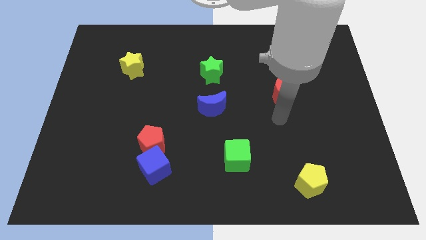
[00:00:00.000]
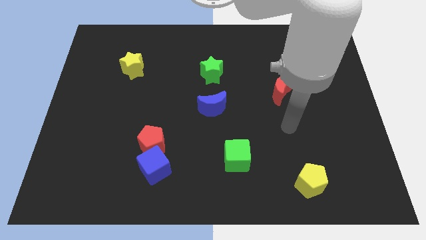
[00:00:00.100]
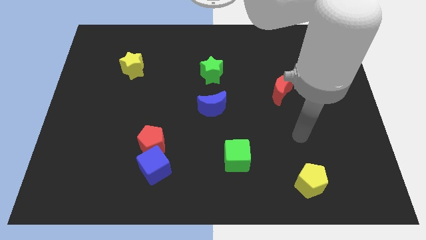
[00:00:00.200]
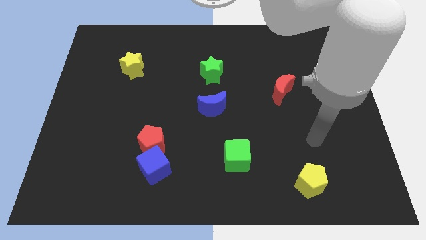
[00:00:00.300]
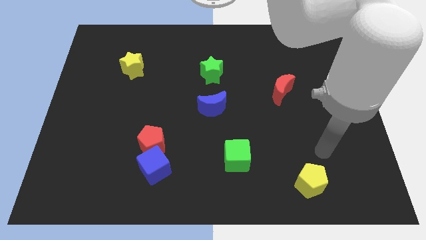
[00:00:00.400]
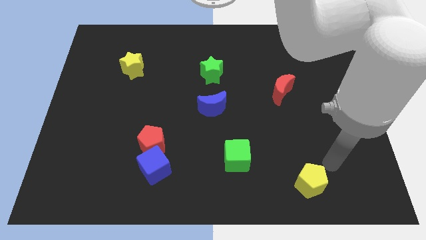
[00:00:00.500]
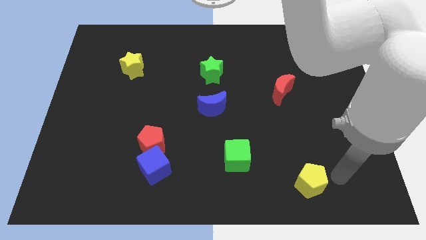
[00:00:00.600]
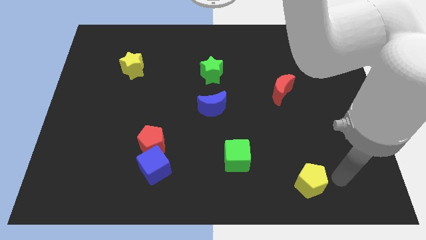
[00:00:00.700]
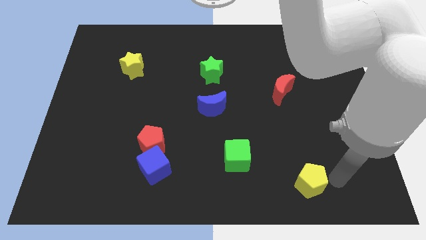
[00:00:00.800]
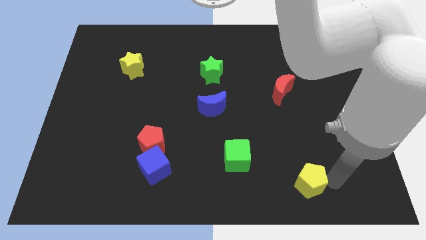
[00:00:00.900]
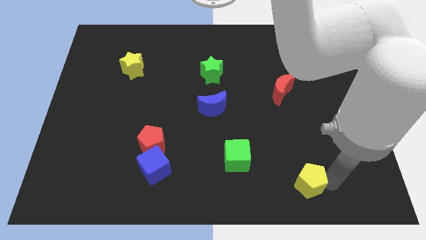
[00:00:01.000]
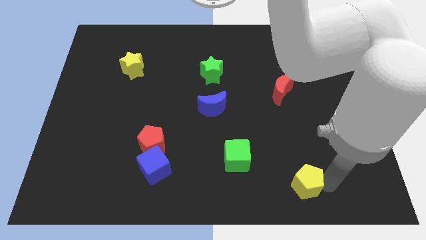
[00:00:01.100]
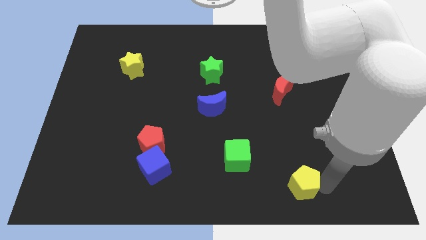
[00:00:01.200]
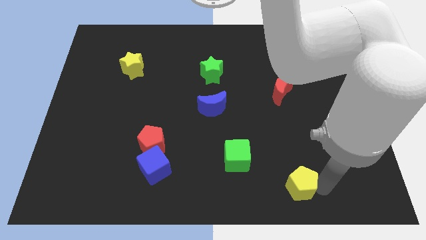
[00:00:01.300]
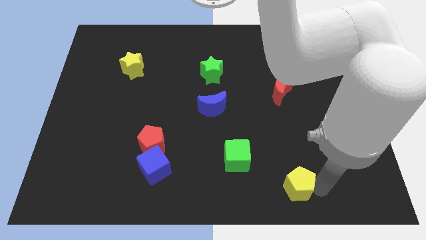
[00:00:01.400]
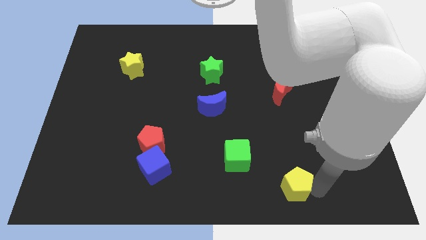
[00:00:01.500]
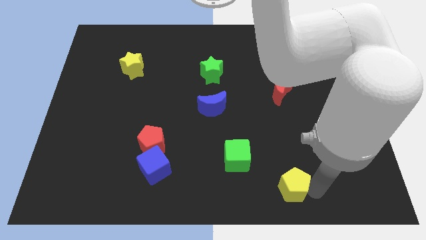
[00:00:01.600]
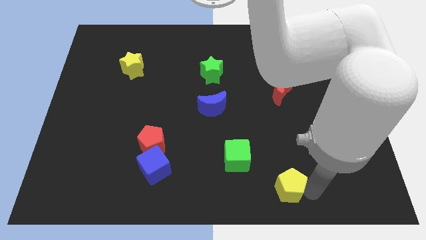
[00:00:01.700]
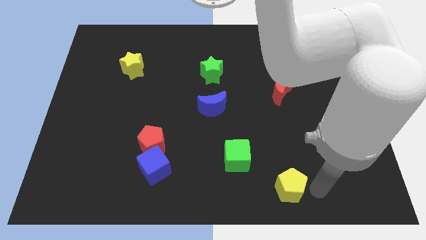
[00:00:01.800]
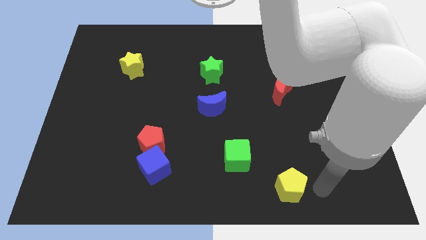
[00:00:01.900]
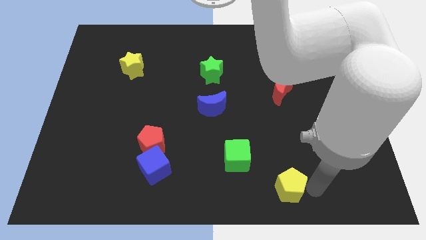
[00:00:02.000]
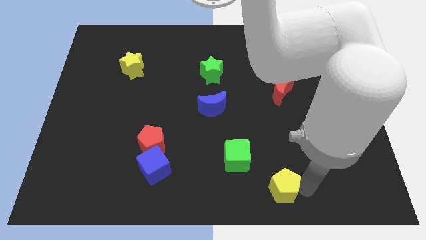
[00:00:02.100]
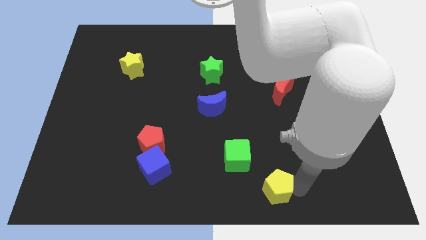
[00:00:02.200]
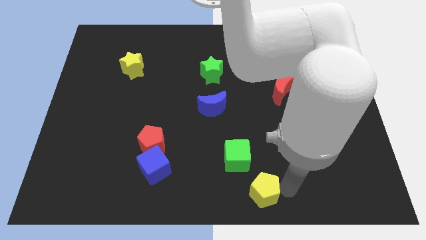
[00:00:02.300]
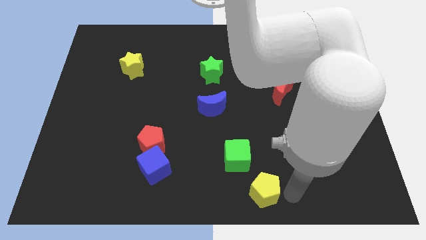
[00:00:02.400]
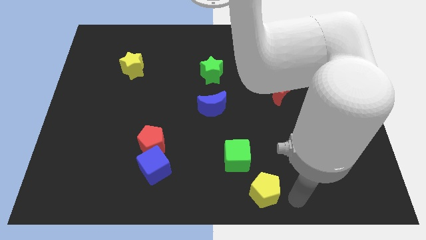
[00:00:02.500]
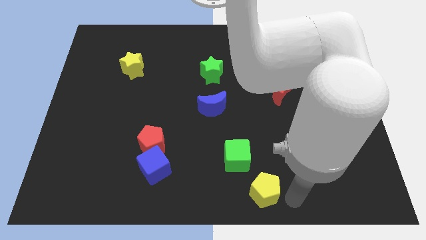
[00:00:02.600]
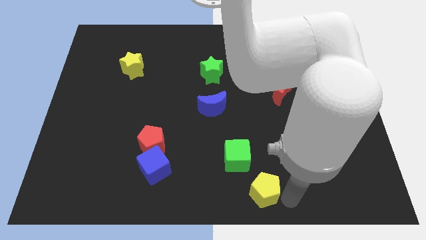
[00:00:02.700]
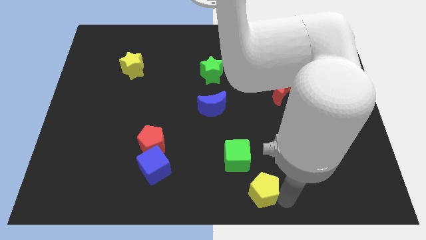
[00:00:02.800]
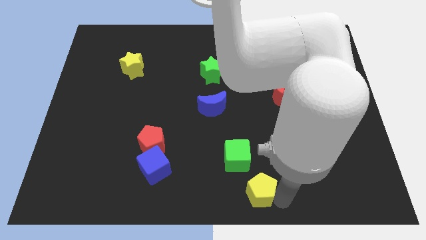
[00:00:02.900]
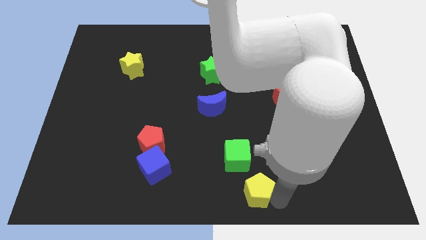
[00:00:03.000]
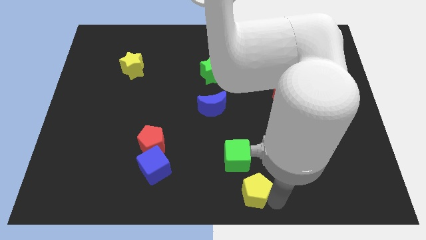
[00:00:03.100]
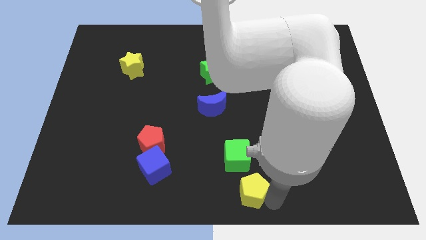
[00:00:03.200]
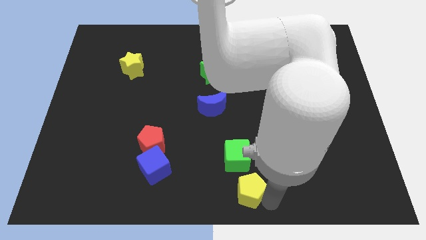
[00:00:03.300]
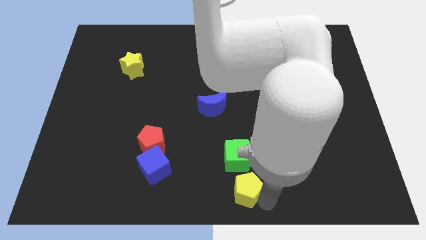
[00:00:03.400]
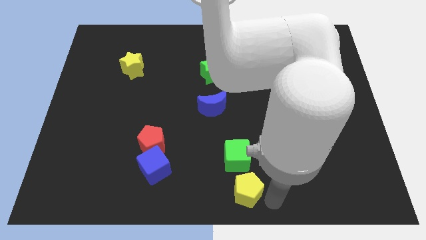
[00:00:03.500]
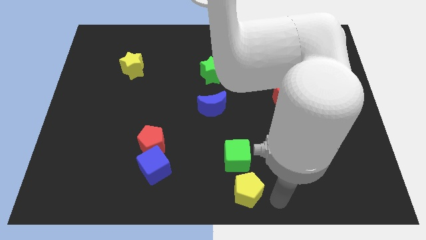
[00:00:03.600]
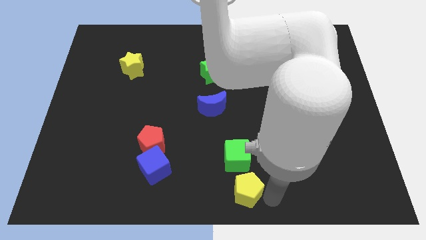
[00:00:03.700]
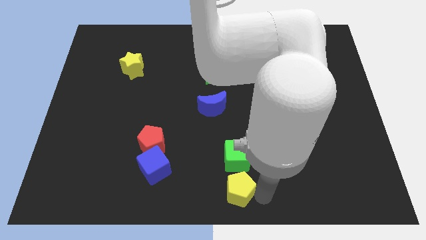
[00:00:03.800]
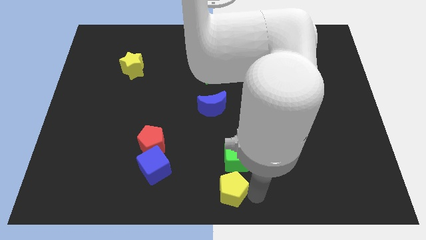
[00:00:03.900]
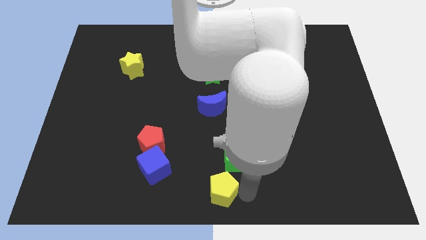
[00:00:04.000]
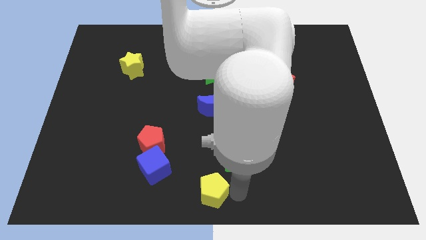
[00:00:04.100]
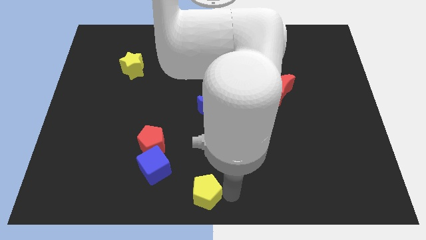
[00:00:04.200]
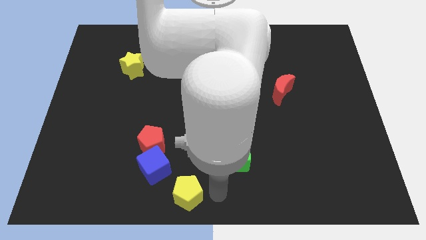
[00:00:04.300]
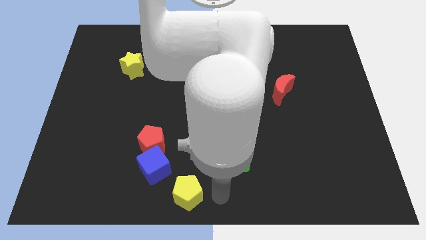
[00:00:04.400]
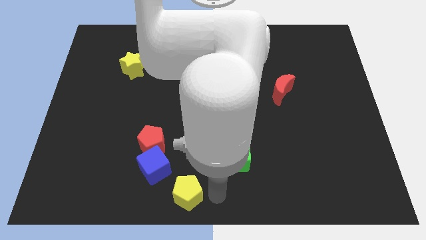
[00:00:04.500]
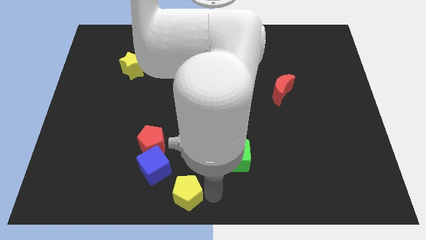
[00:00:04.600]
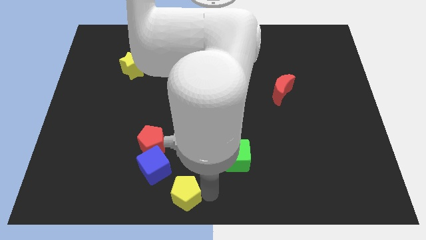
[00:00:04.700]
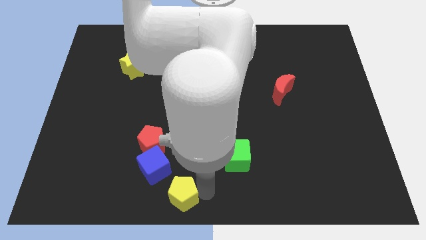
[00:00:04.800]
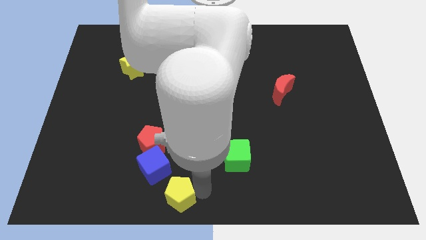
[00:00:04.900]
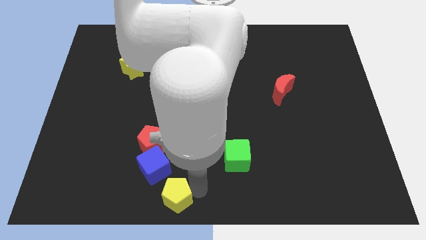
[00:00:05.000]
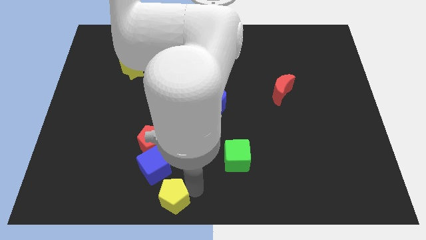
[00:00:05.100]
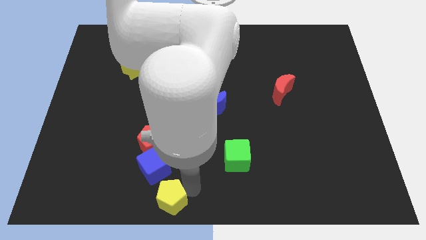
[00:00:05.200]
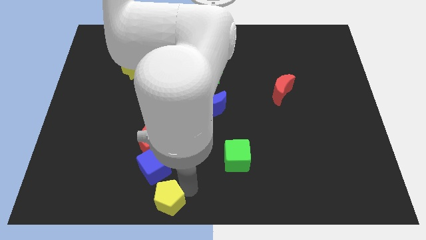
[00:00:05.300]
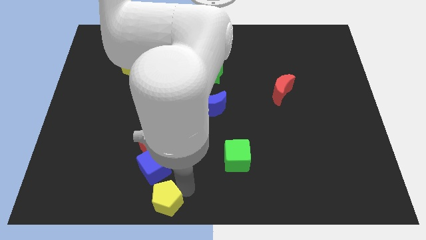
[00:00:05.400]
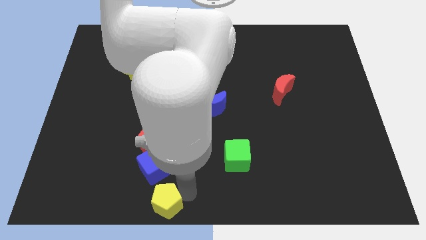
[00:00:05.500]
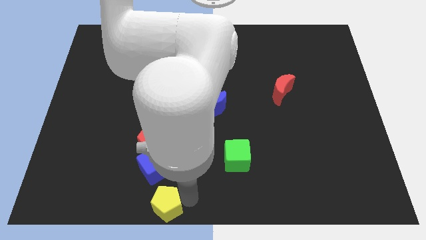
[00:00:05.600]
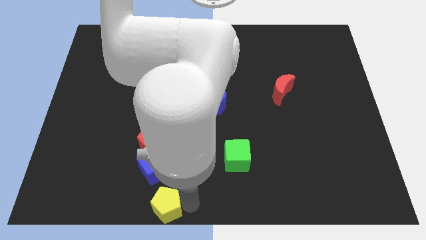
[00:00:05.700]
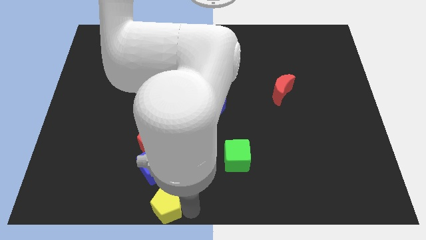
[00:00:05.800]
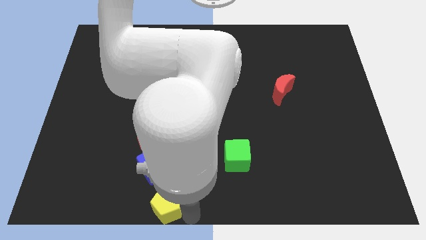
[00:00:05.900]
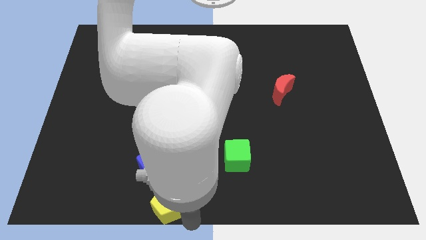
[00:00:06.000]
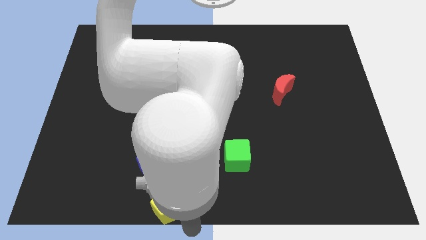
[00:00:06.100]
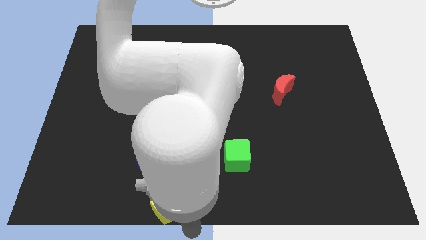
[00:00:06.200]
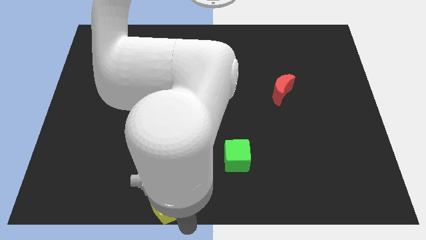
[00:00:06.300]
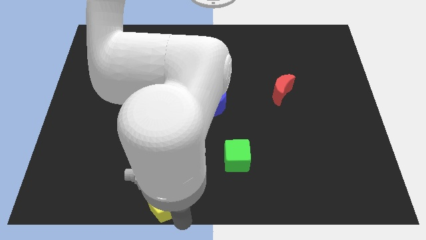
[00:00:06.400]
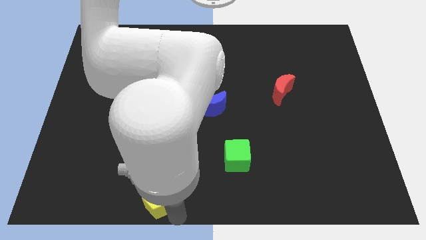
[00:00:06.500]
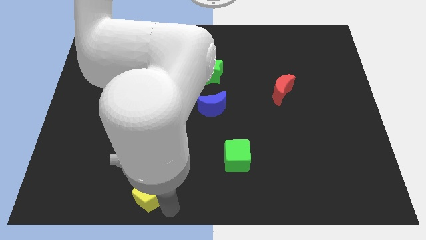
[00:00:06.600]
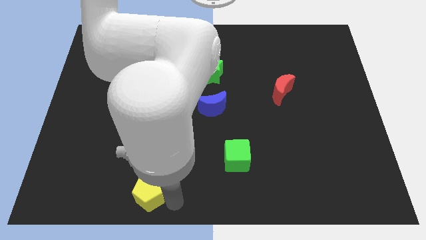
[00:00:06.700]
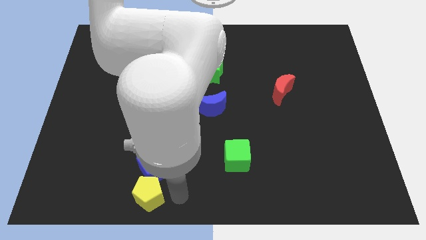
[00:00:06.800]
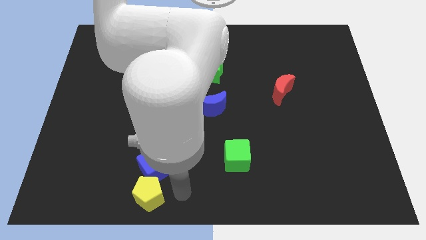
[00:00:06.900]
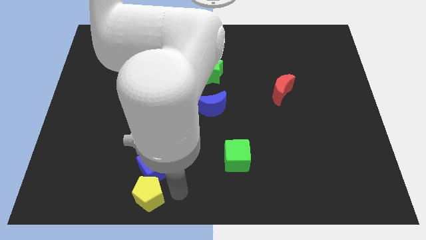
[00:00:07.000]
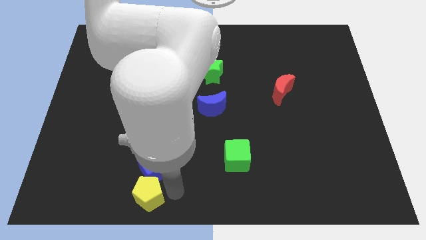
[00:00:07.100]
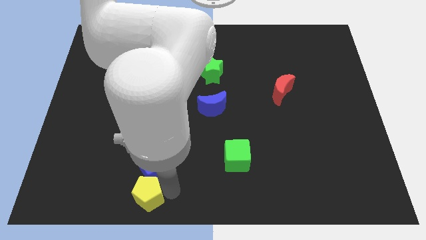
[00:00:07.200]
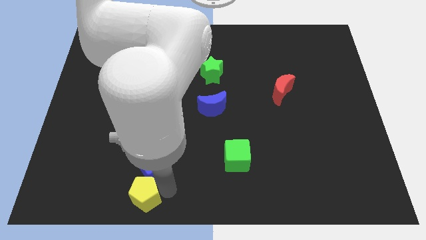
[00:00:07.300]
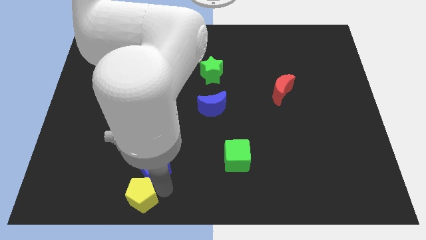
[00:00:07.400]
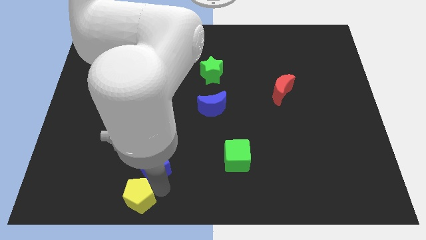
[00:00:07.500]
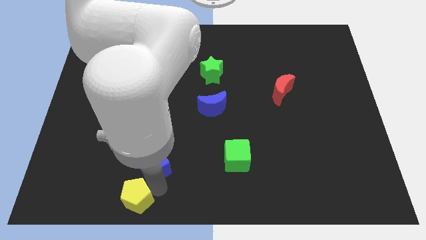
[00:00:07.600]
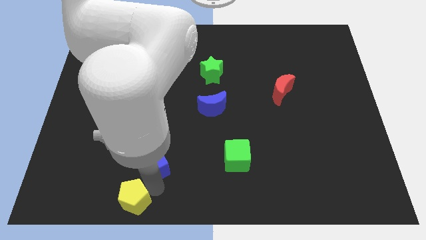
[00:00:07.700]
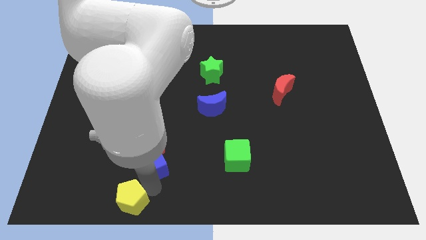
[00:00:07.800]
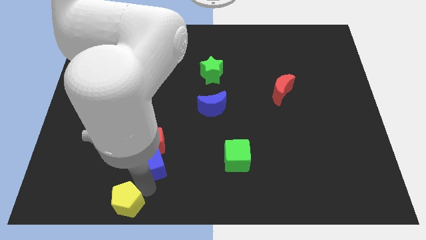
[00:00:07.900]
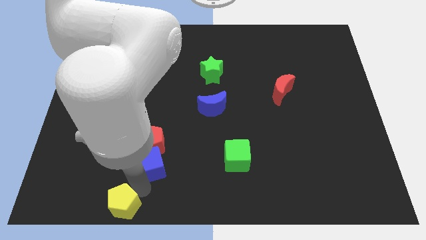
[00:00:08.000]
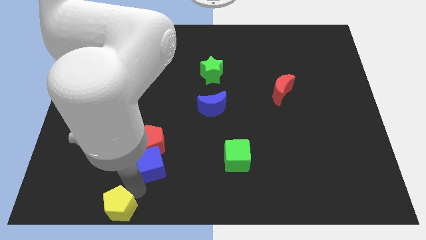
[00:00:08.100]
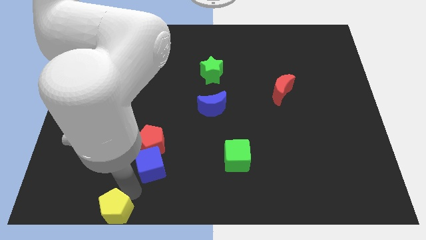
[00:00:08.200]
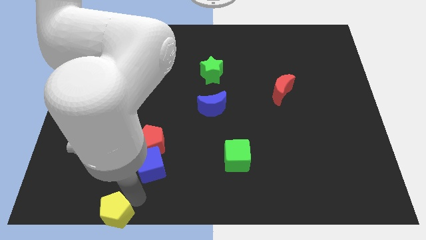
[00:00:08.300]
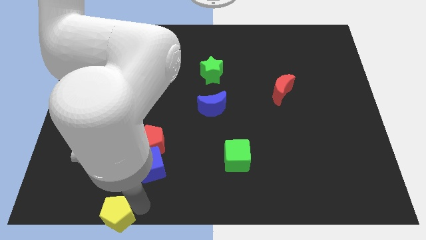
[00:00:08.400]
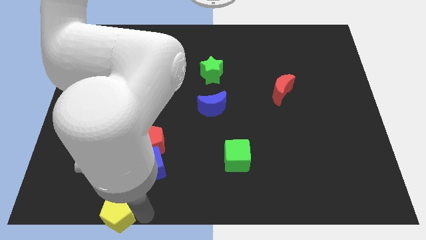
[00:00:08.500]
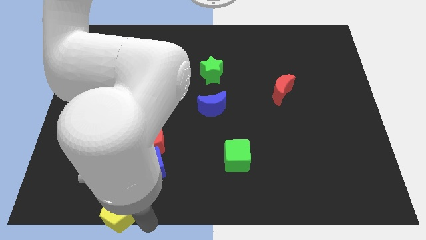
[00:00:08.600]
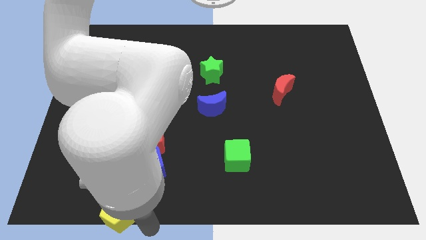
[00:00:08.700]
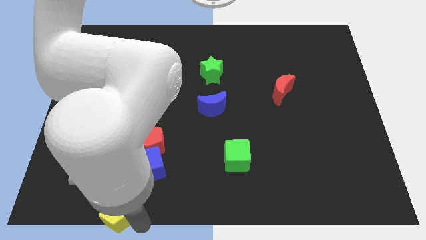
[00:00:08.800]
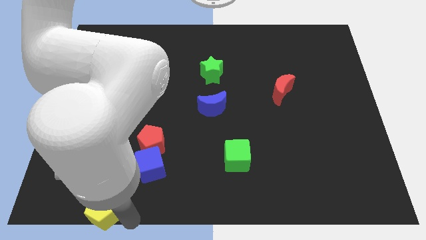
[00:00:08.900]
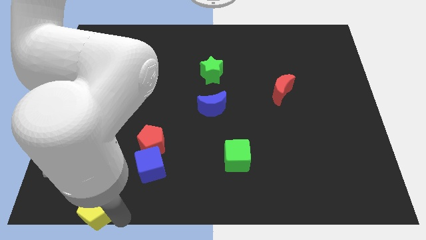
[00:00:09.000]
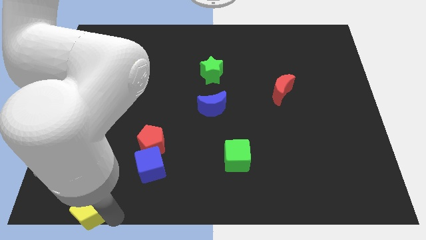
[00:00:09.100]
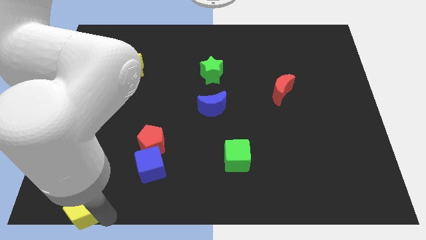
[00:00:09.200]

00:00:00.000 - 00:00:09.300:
push the yellow pentagon to the bottom left
